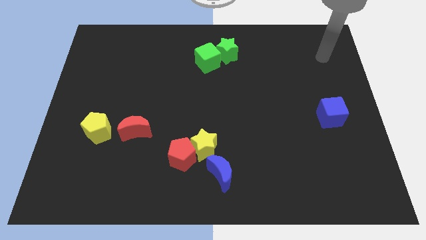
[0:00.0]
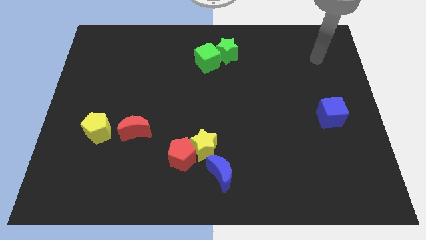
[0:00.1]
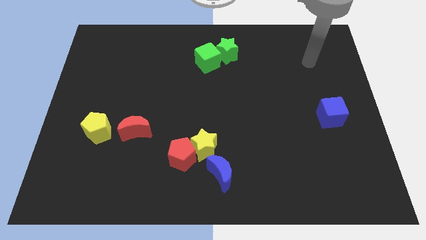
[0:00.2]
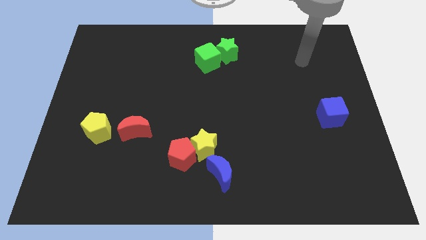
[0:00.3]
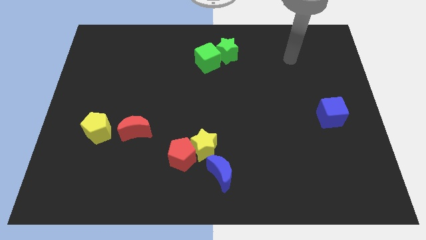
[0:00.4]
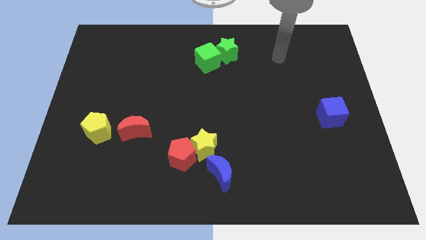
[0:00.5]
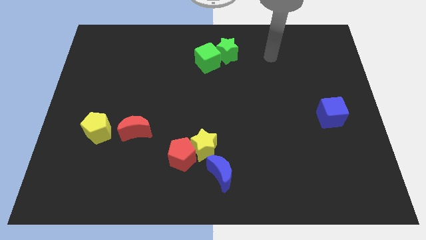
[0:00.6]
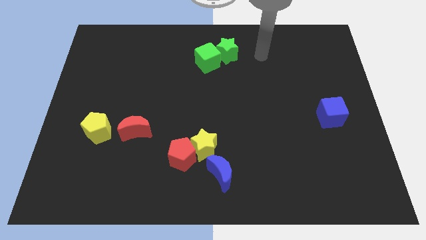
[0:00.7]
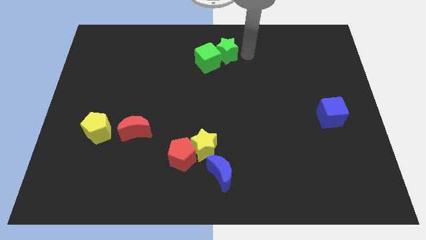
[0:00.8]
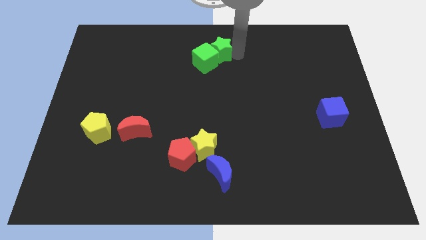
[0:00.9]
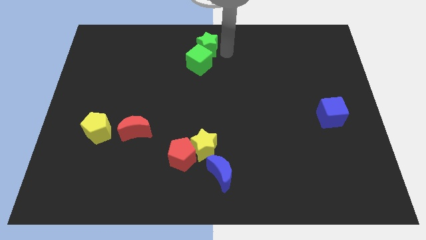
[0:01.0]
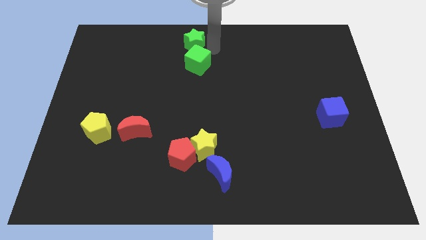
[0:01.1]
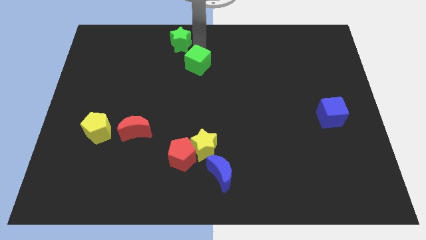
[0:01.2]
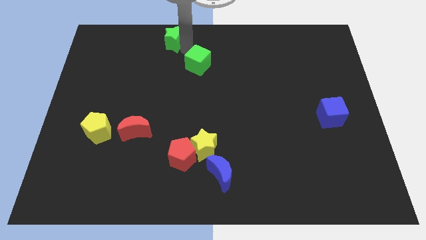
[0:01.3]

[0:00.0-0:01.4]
pull the green cube apart from the green star

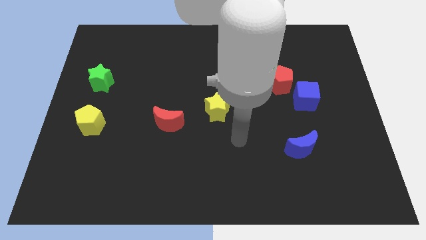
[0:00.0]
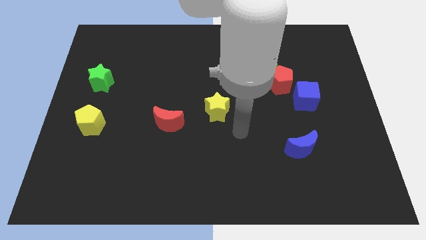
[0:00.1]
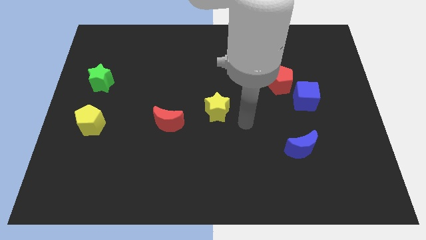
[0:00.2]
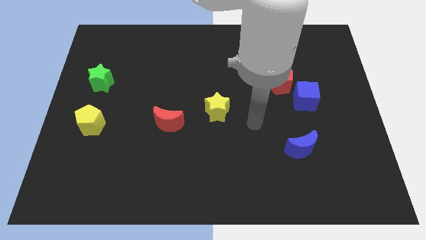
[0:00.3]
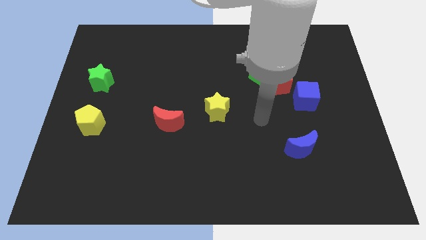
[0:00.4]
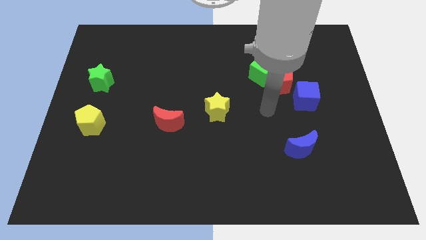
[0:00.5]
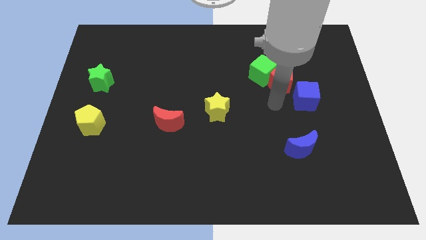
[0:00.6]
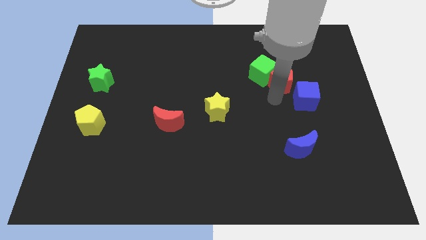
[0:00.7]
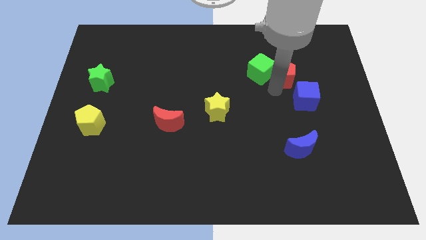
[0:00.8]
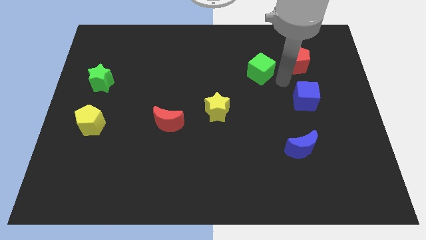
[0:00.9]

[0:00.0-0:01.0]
separate the green cube from the red pentagon

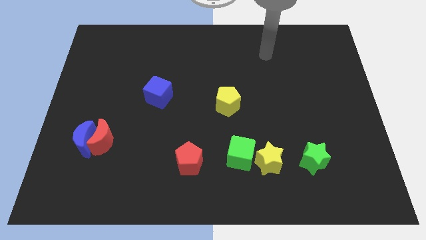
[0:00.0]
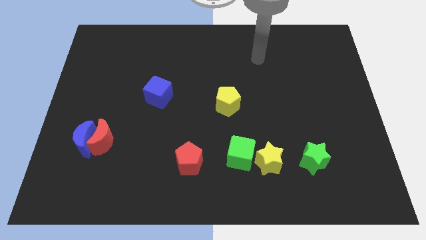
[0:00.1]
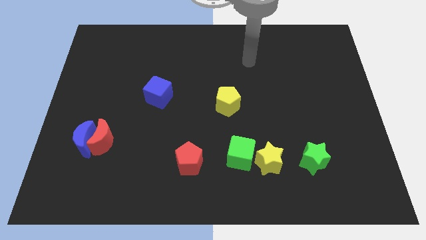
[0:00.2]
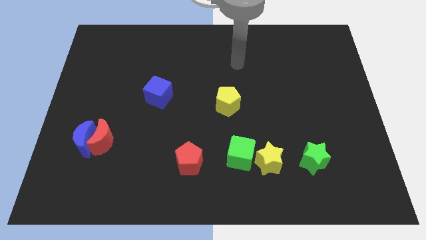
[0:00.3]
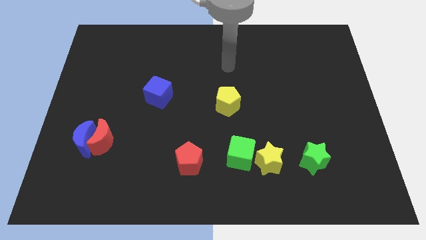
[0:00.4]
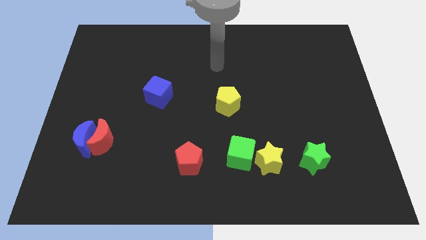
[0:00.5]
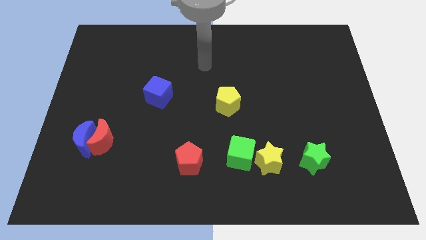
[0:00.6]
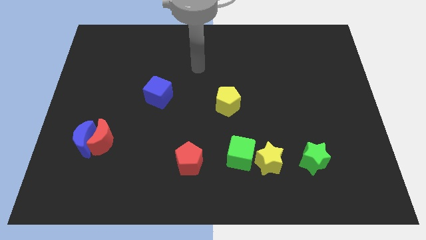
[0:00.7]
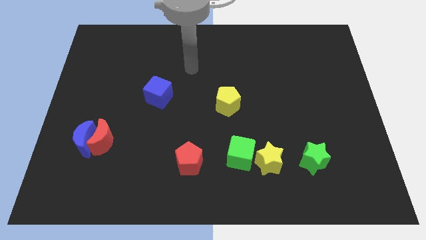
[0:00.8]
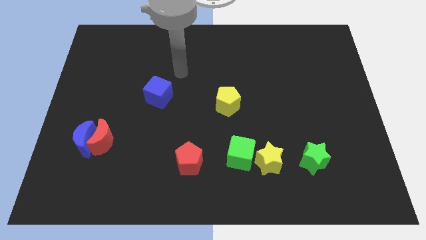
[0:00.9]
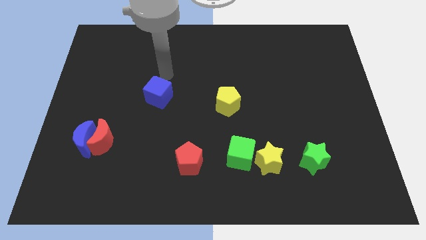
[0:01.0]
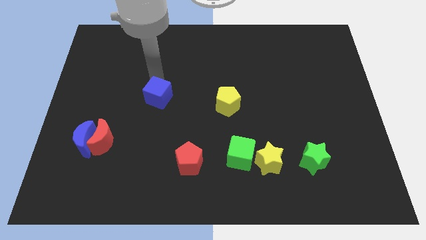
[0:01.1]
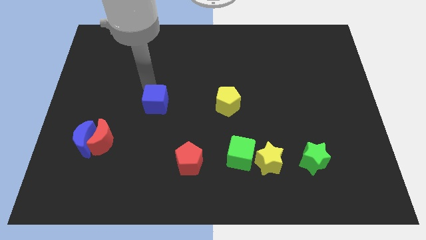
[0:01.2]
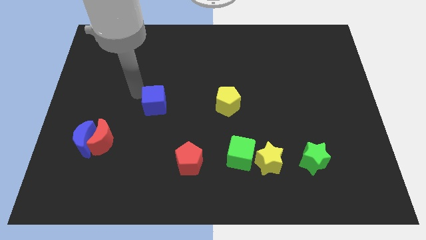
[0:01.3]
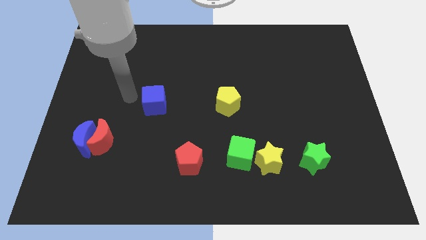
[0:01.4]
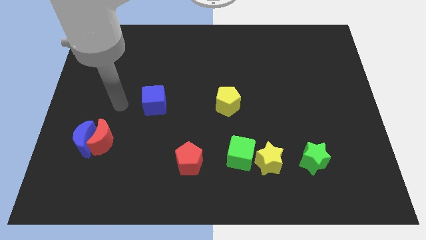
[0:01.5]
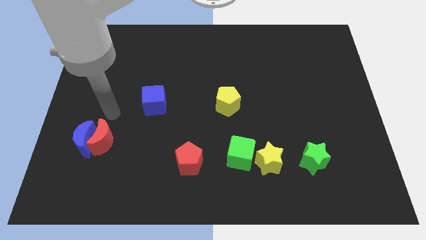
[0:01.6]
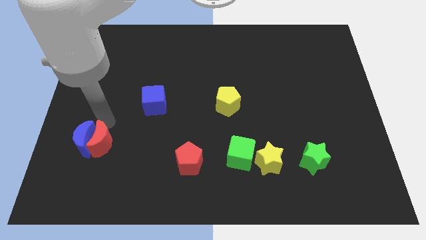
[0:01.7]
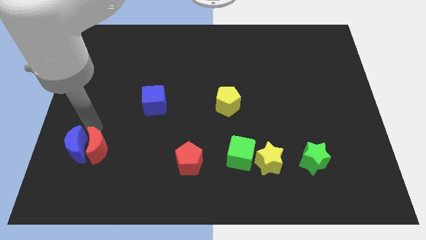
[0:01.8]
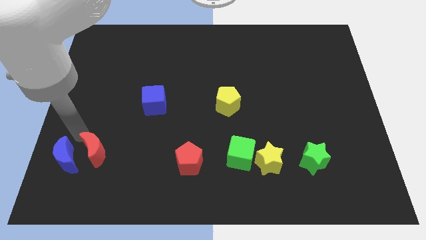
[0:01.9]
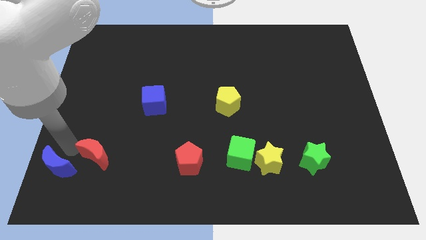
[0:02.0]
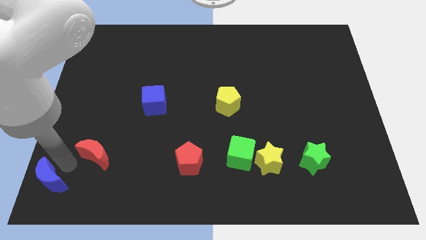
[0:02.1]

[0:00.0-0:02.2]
move the red moon away from the blue moon

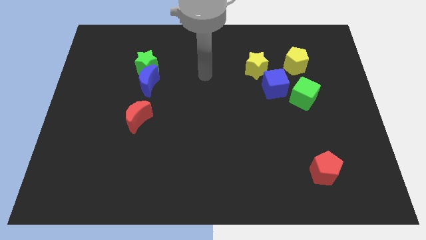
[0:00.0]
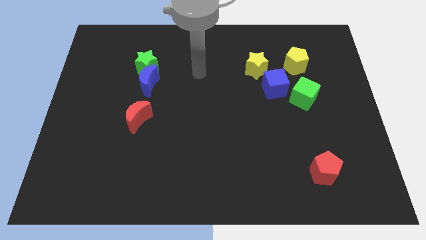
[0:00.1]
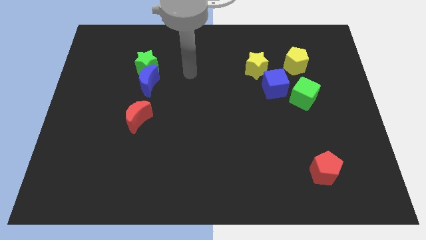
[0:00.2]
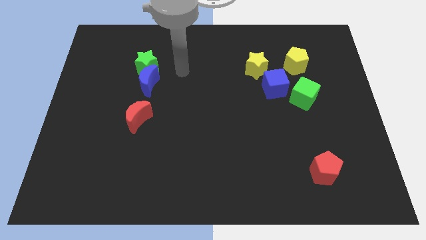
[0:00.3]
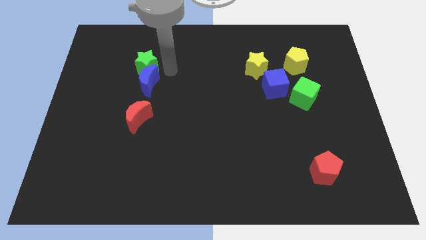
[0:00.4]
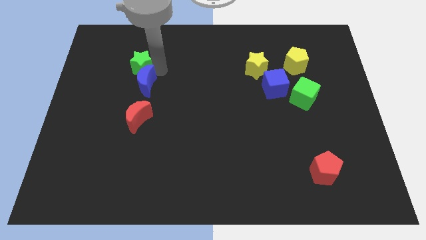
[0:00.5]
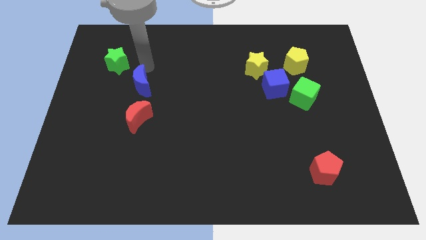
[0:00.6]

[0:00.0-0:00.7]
pull the blue moon apart from the green star

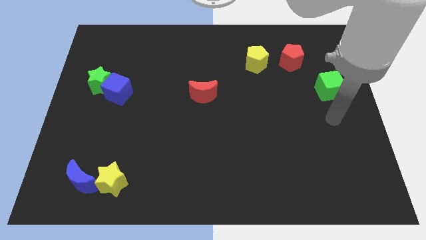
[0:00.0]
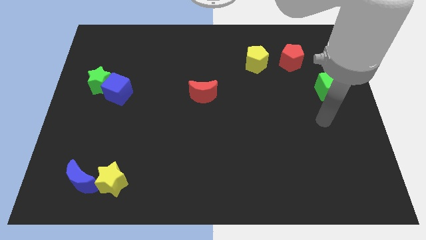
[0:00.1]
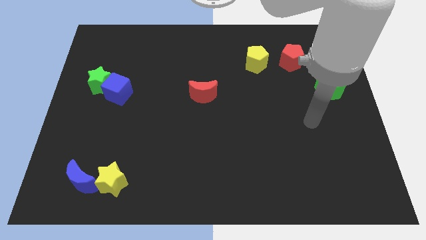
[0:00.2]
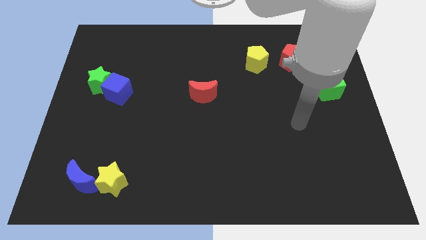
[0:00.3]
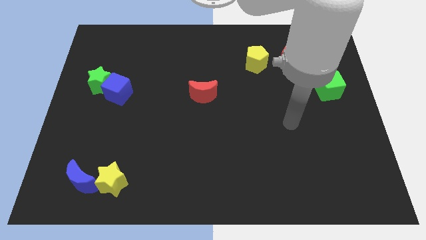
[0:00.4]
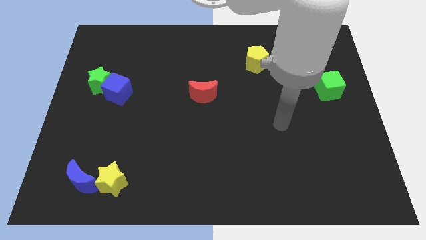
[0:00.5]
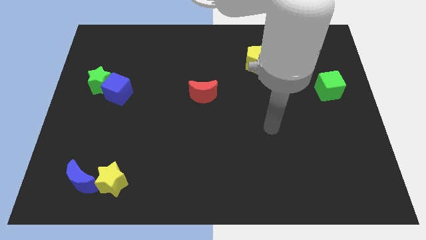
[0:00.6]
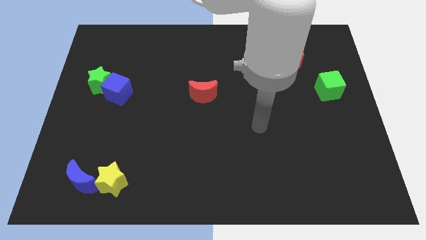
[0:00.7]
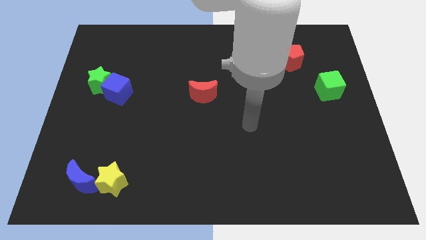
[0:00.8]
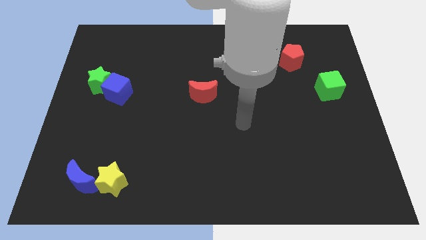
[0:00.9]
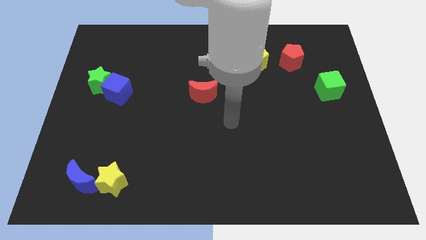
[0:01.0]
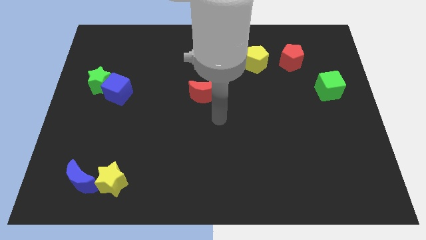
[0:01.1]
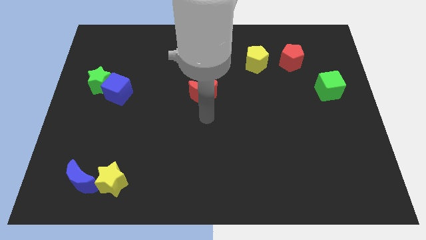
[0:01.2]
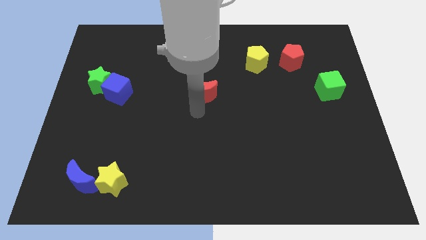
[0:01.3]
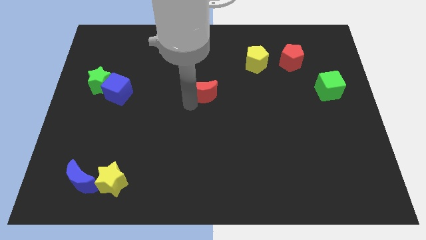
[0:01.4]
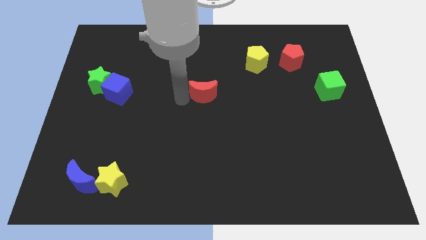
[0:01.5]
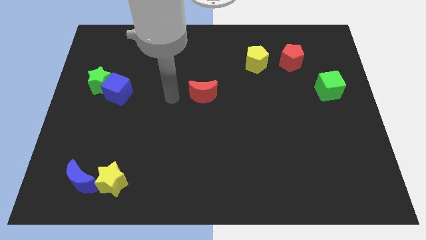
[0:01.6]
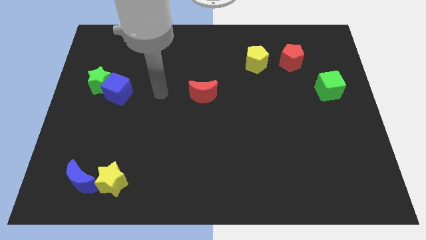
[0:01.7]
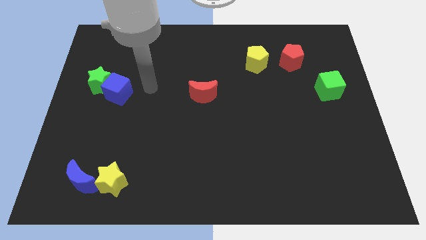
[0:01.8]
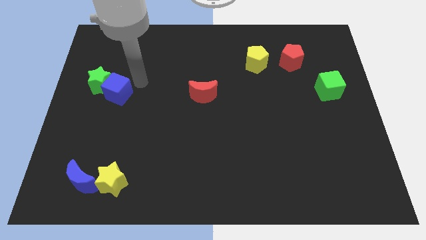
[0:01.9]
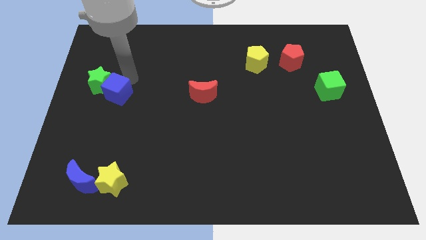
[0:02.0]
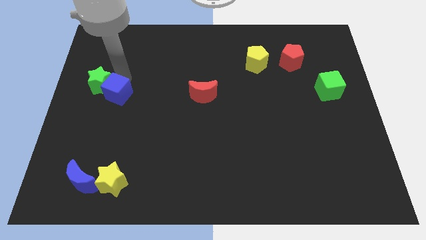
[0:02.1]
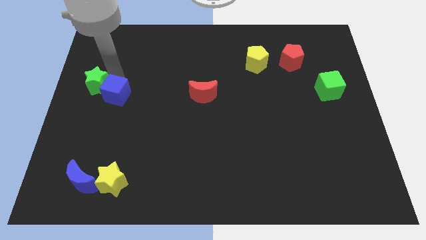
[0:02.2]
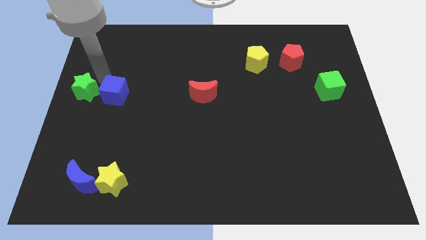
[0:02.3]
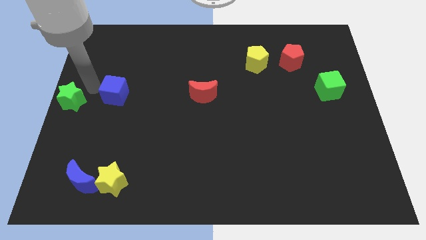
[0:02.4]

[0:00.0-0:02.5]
pull the blue cube apart from the green star

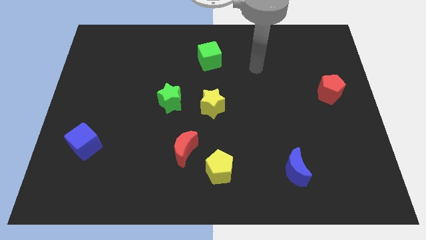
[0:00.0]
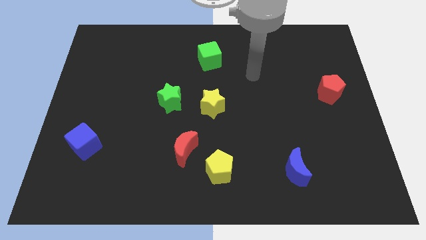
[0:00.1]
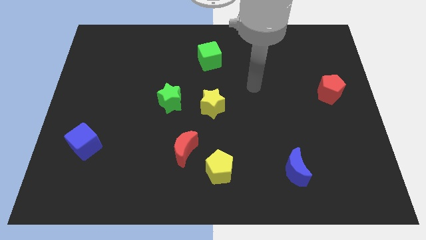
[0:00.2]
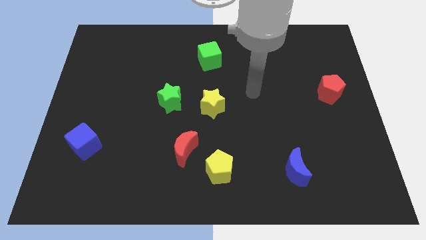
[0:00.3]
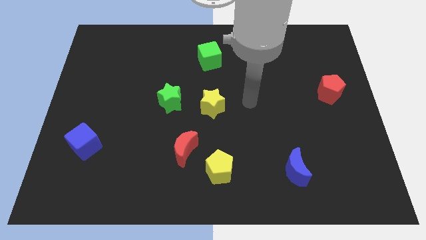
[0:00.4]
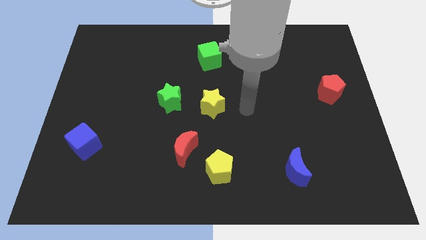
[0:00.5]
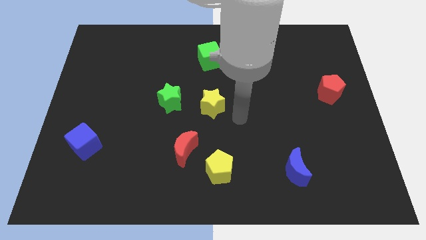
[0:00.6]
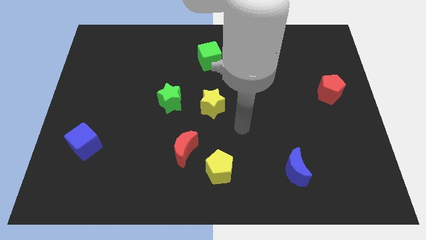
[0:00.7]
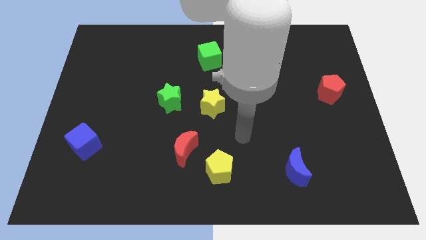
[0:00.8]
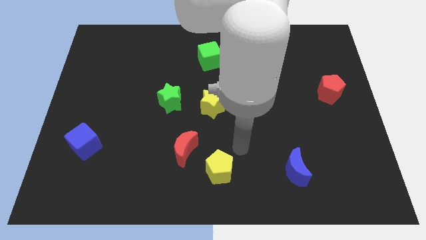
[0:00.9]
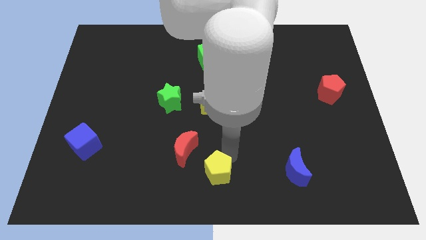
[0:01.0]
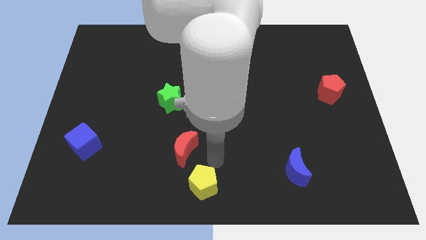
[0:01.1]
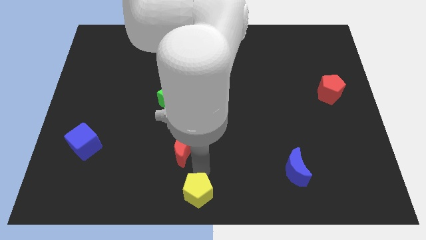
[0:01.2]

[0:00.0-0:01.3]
move the red moon away from the yellow pentagon

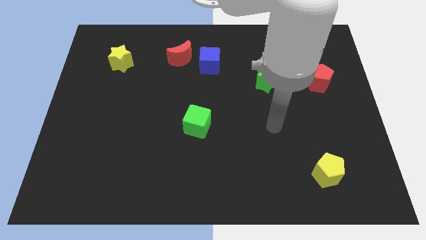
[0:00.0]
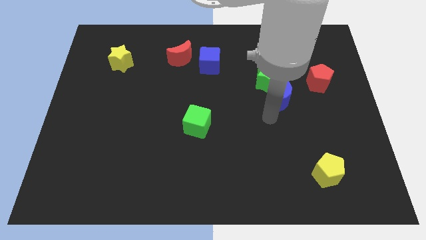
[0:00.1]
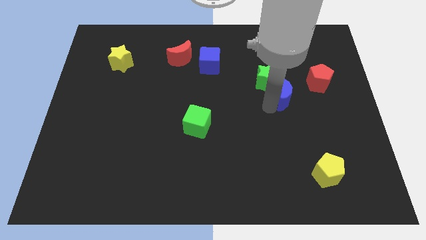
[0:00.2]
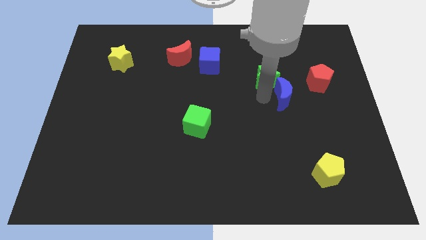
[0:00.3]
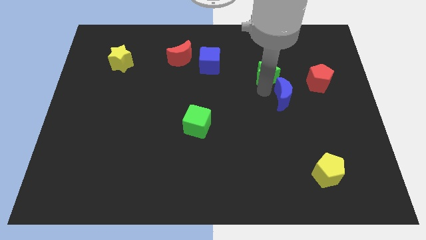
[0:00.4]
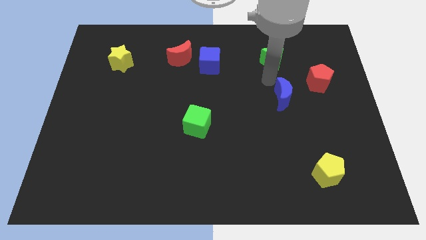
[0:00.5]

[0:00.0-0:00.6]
move the blue moon away from the green star
